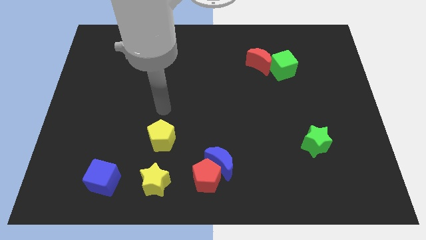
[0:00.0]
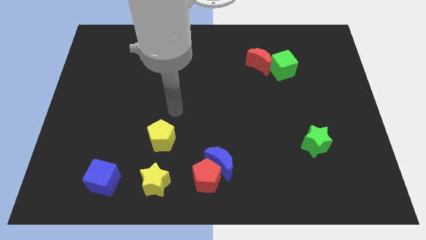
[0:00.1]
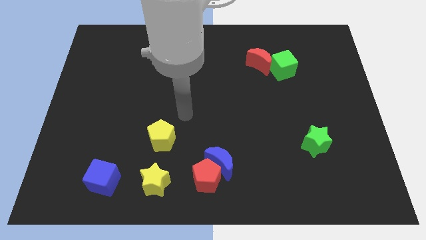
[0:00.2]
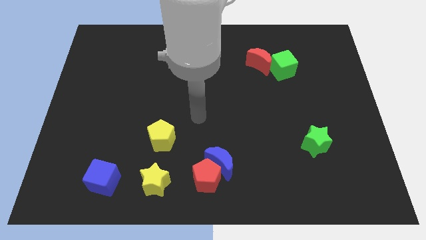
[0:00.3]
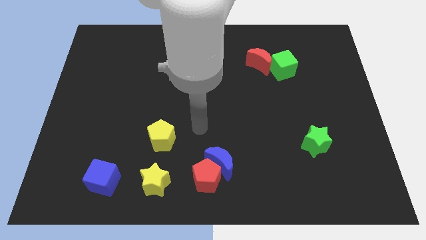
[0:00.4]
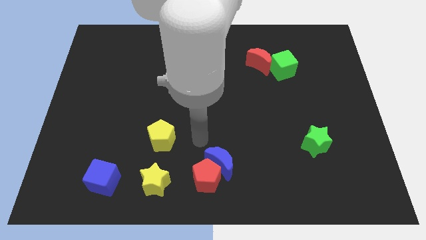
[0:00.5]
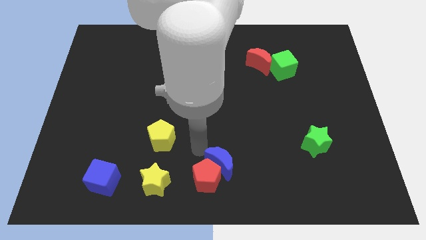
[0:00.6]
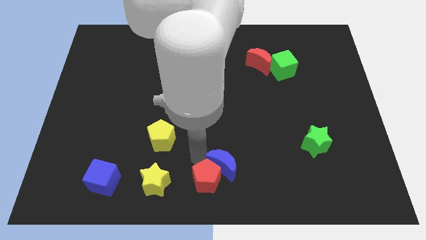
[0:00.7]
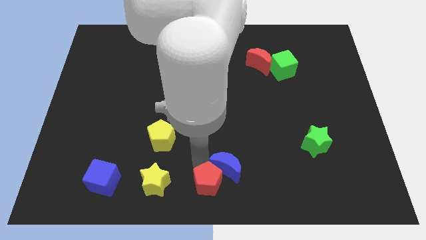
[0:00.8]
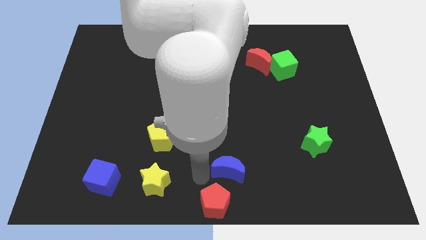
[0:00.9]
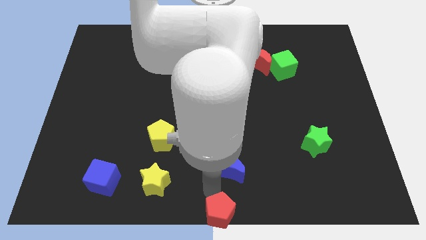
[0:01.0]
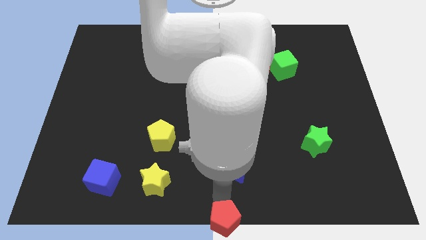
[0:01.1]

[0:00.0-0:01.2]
separate the blue moon from the red pentagon

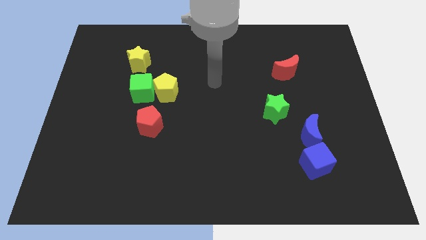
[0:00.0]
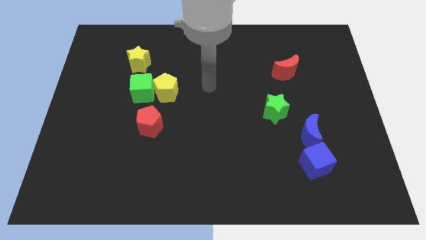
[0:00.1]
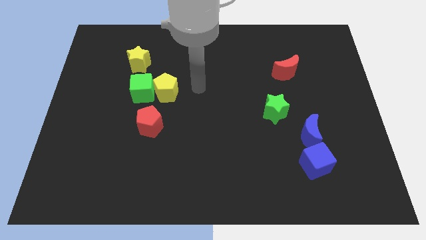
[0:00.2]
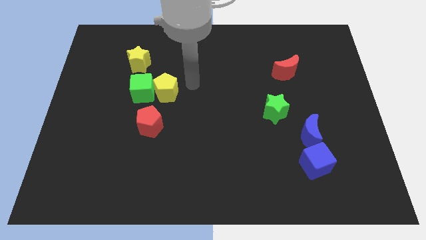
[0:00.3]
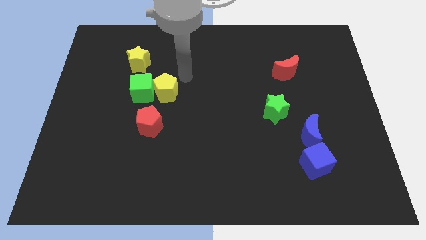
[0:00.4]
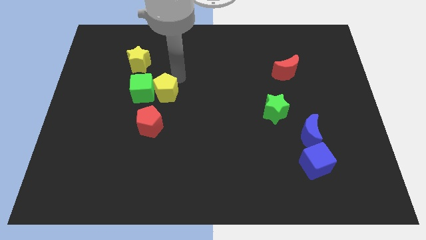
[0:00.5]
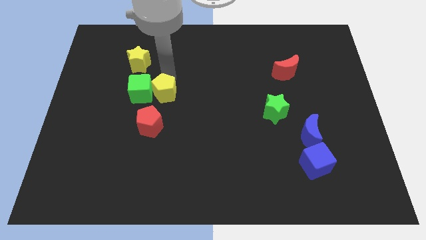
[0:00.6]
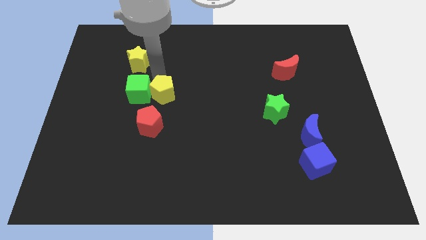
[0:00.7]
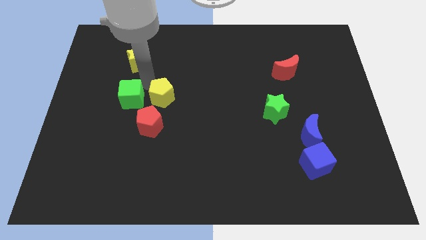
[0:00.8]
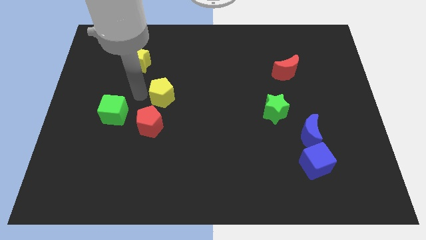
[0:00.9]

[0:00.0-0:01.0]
separate the yellow pentagon from the green cube

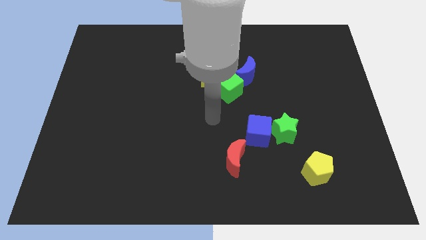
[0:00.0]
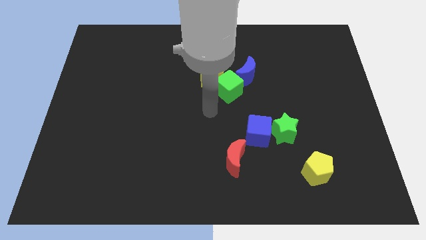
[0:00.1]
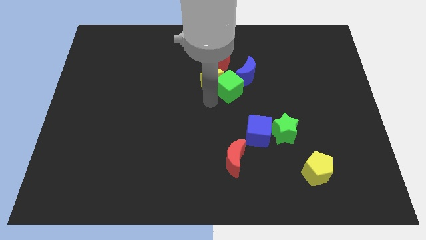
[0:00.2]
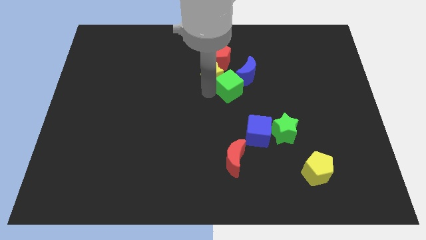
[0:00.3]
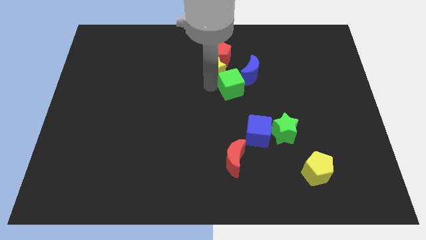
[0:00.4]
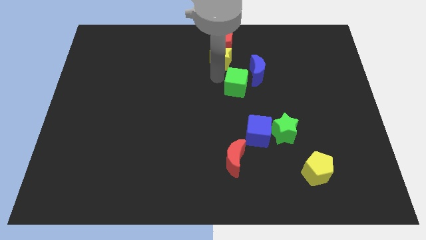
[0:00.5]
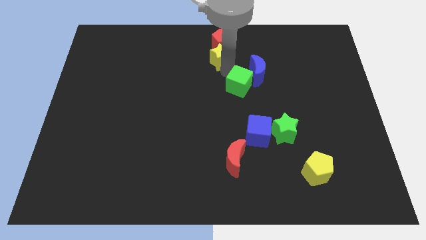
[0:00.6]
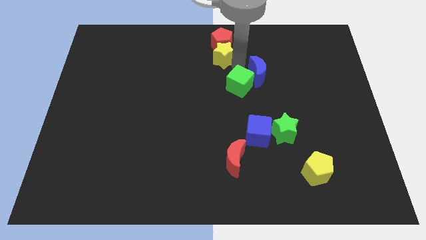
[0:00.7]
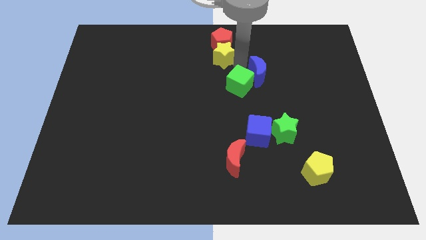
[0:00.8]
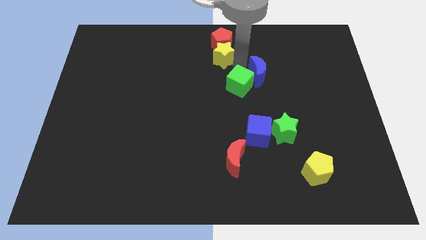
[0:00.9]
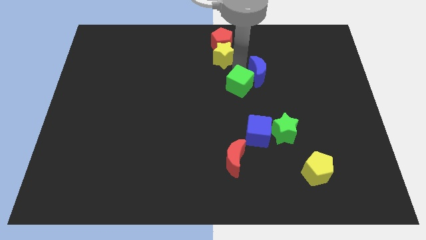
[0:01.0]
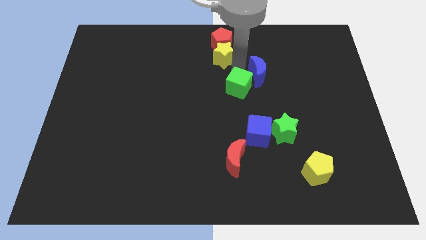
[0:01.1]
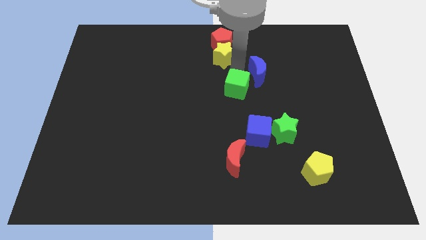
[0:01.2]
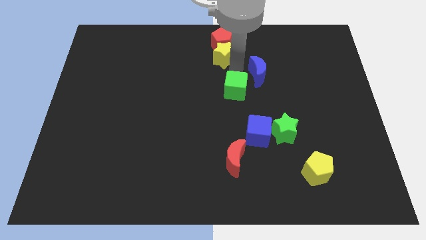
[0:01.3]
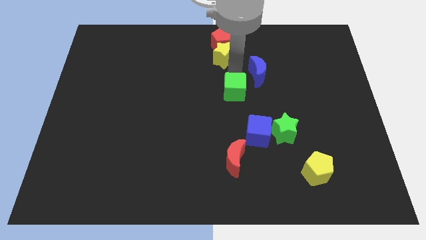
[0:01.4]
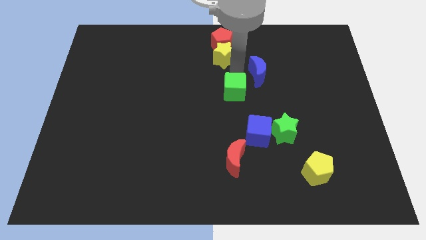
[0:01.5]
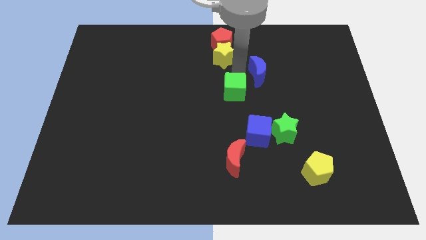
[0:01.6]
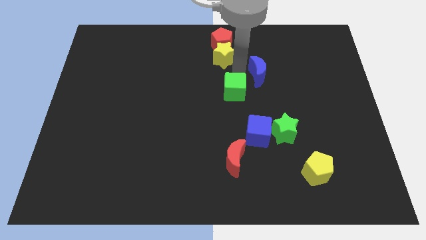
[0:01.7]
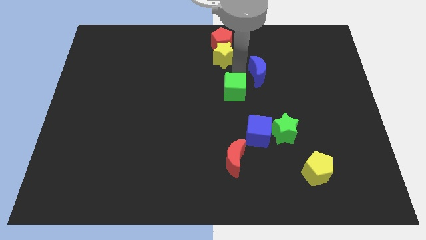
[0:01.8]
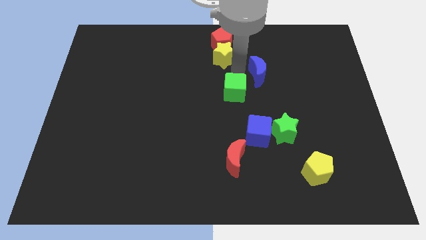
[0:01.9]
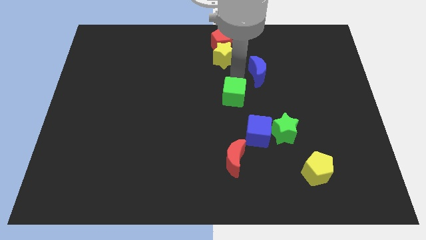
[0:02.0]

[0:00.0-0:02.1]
pull the green cube apart from the yellow star and blue moon

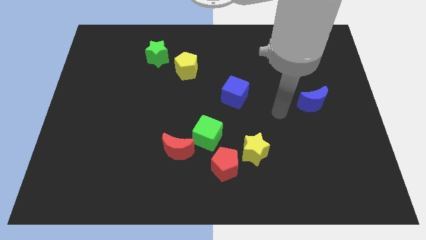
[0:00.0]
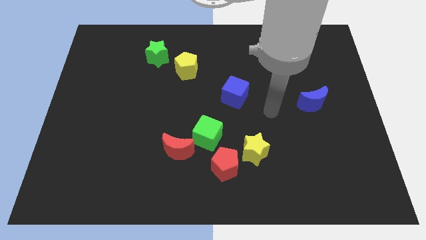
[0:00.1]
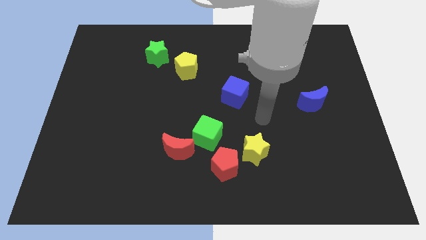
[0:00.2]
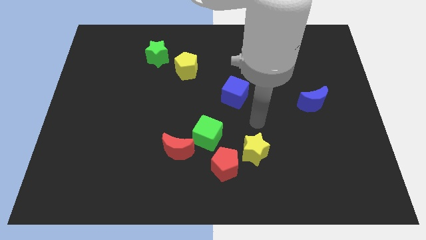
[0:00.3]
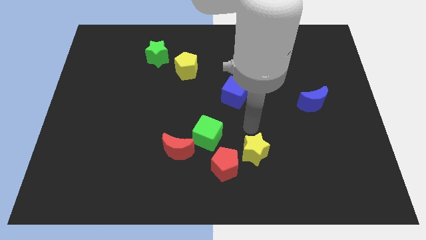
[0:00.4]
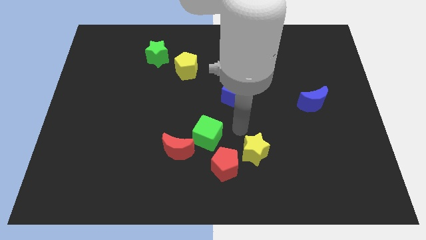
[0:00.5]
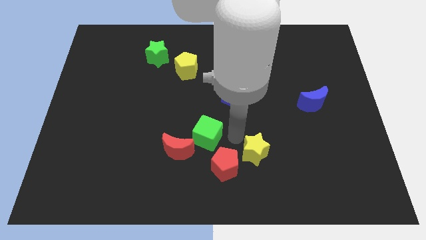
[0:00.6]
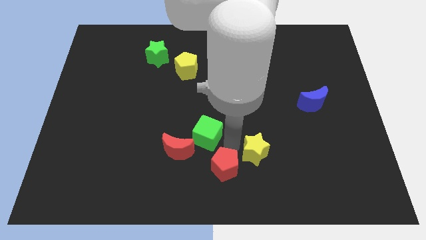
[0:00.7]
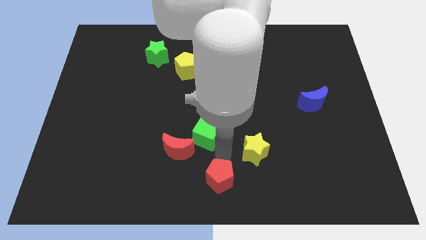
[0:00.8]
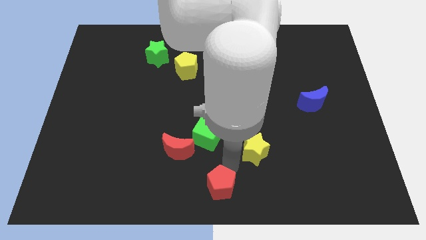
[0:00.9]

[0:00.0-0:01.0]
separate the yellow star from the red pentagon

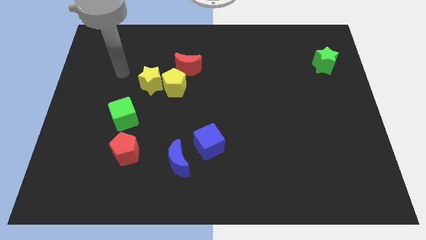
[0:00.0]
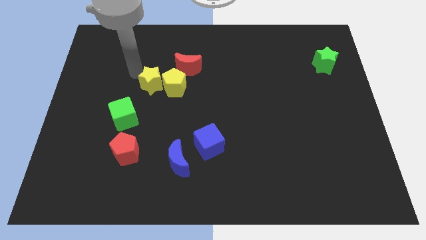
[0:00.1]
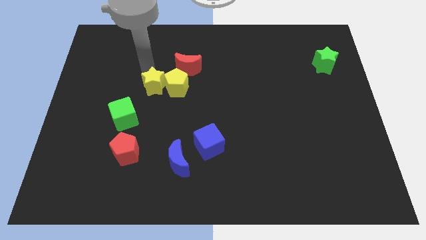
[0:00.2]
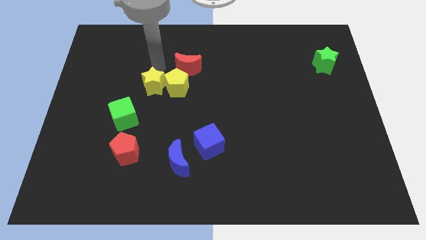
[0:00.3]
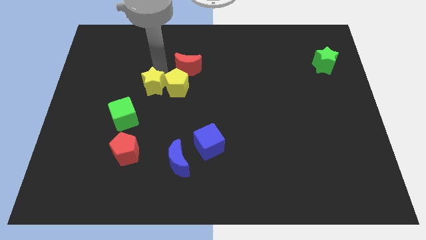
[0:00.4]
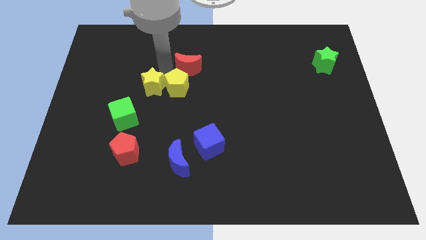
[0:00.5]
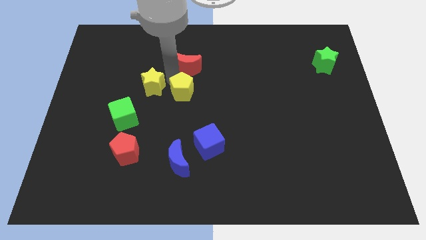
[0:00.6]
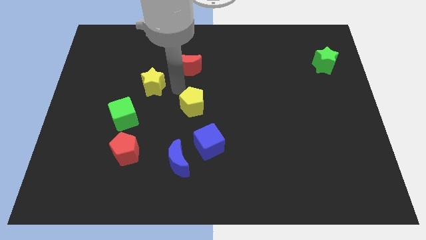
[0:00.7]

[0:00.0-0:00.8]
move the yellow star away from the yellow pentagon

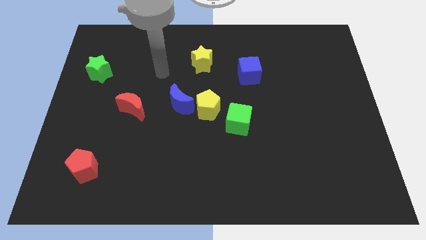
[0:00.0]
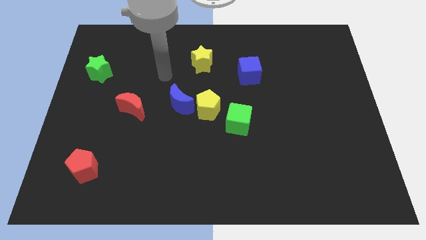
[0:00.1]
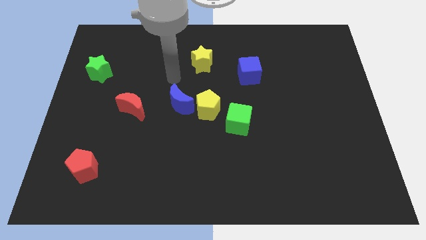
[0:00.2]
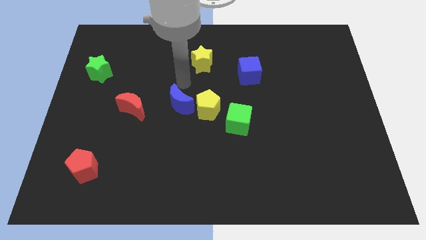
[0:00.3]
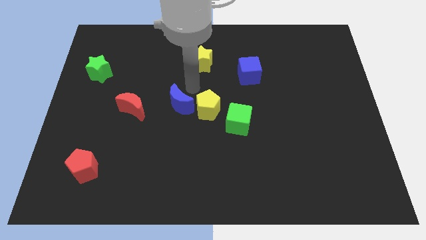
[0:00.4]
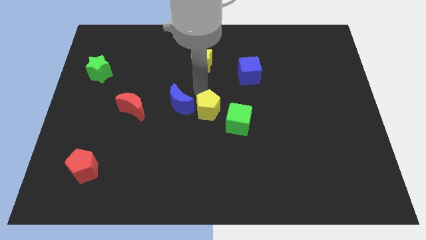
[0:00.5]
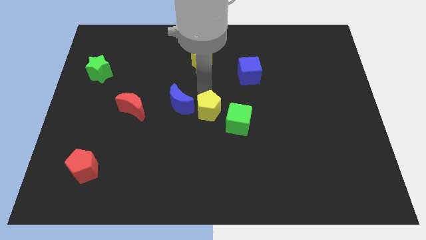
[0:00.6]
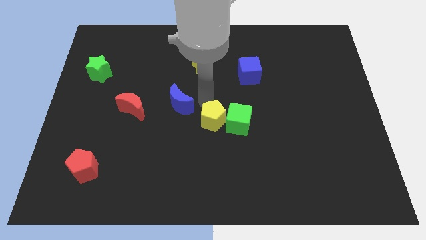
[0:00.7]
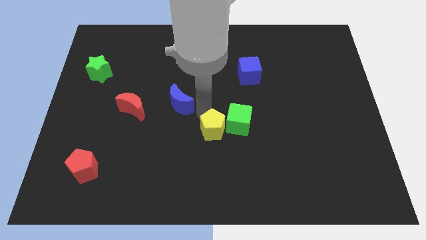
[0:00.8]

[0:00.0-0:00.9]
pull the blue moon apart from the yellow pentagon

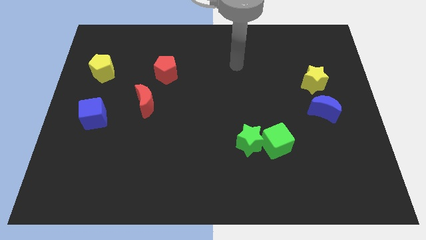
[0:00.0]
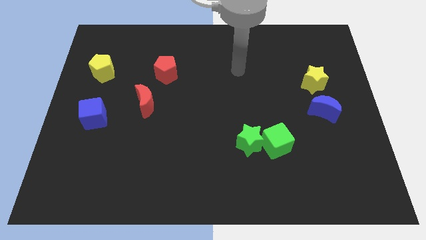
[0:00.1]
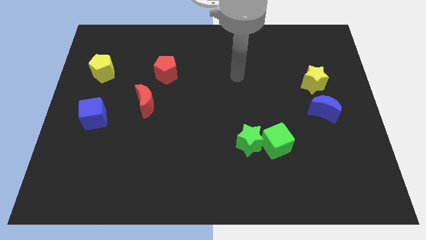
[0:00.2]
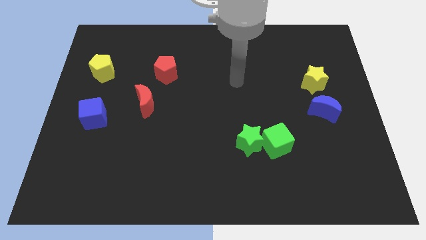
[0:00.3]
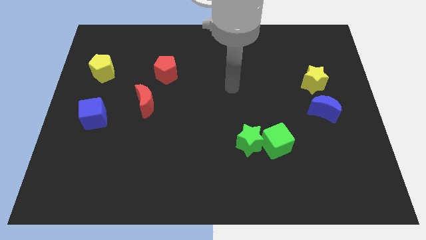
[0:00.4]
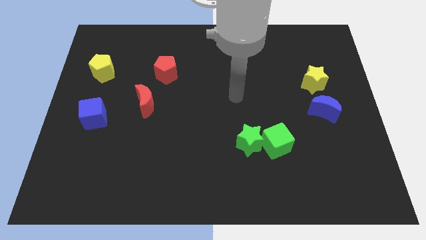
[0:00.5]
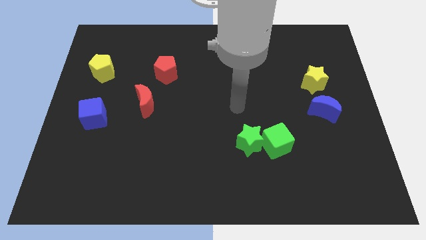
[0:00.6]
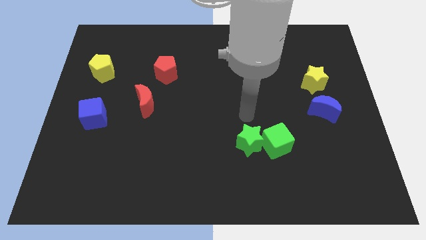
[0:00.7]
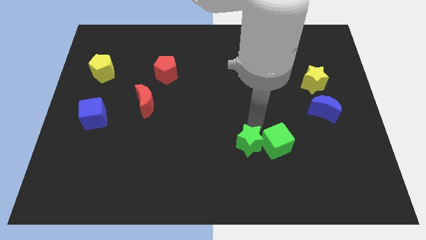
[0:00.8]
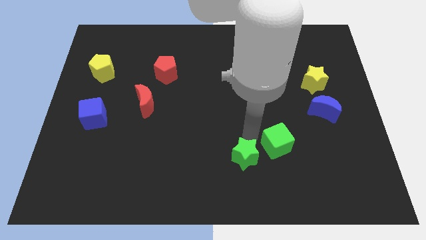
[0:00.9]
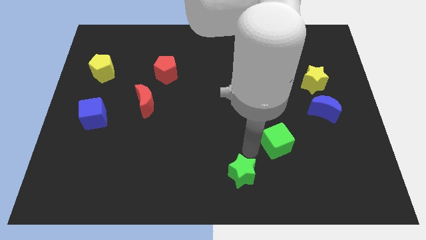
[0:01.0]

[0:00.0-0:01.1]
separate the green cube from the green star

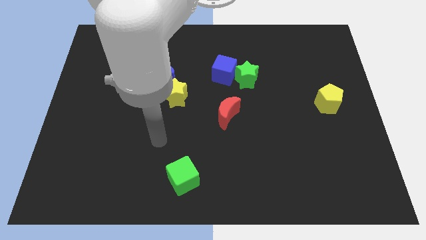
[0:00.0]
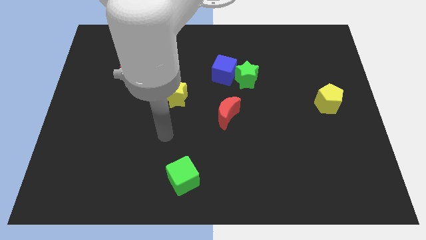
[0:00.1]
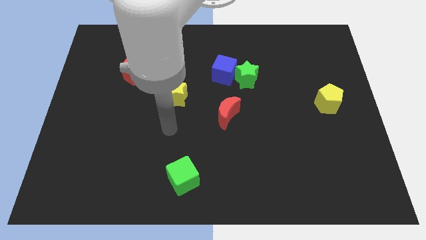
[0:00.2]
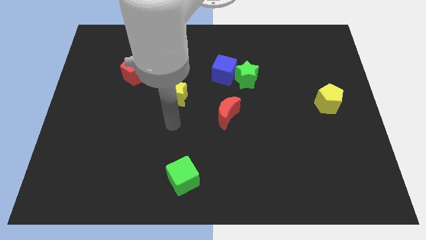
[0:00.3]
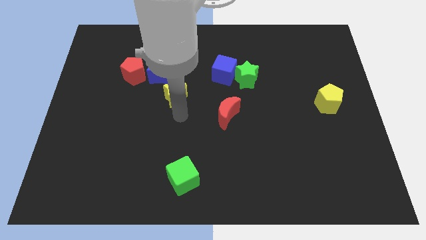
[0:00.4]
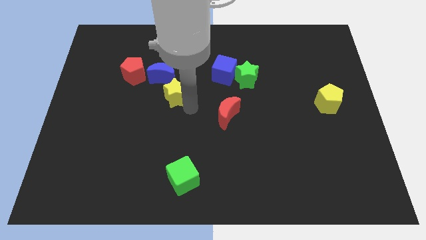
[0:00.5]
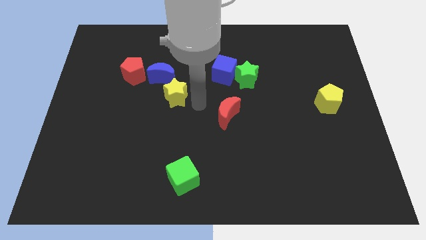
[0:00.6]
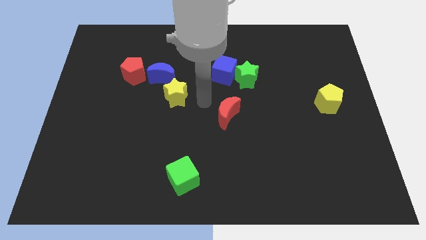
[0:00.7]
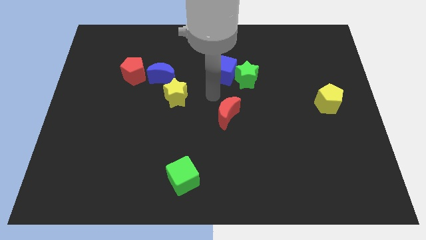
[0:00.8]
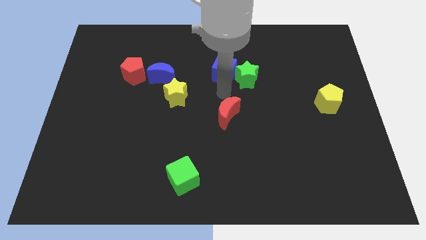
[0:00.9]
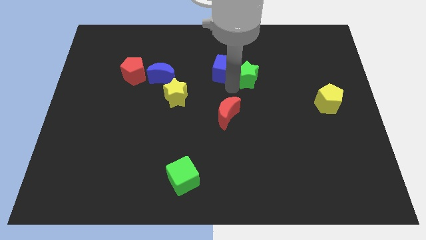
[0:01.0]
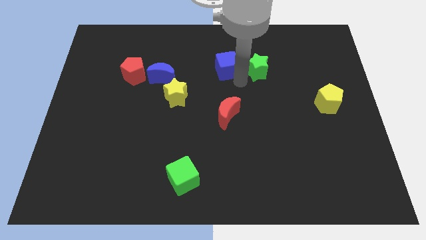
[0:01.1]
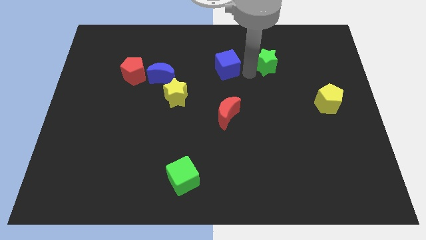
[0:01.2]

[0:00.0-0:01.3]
move the blue cube away from the green star
